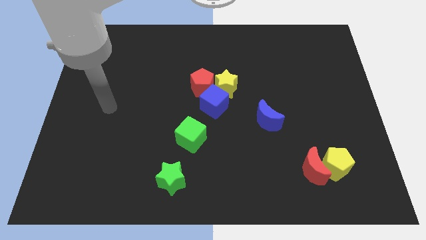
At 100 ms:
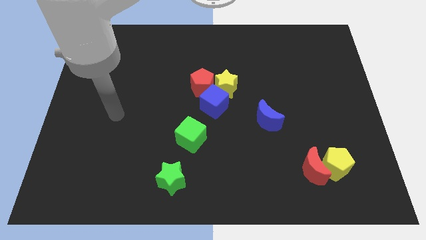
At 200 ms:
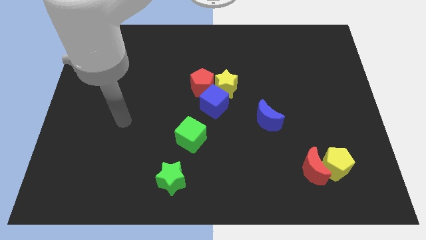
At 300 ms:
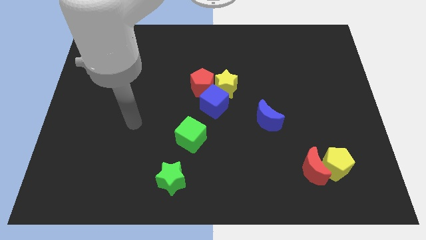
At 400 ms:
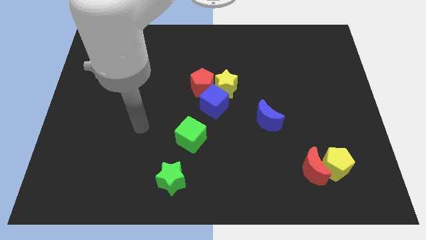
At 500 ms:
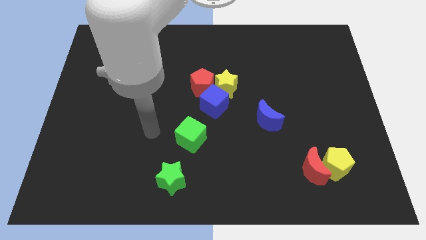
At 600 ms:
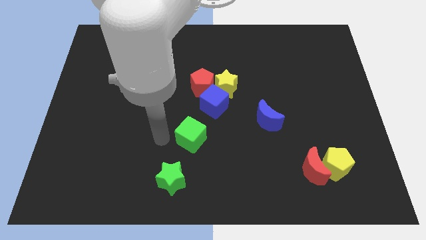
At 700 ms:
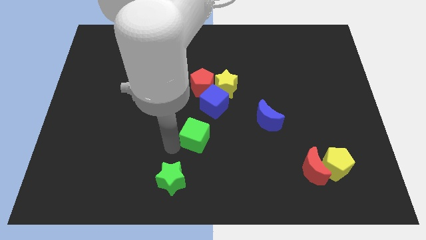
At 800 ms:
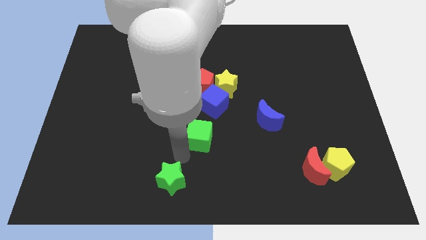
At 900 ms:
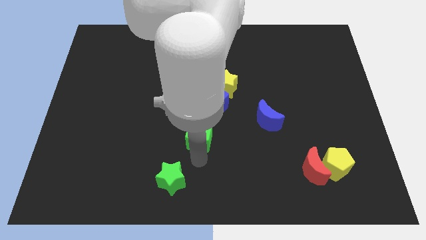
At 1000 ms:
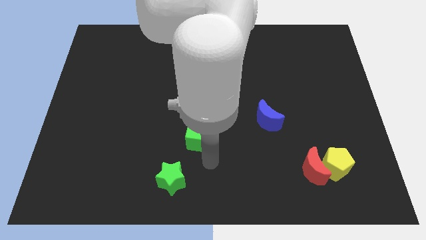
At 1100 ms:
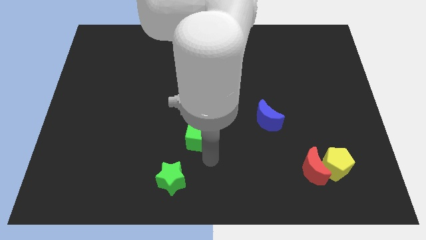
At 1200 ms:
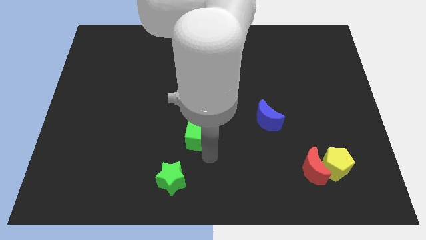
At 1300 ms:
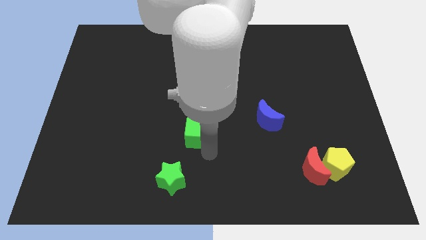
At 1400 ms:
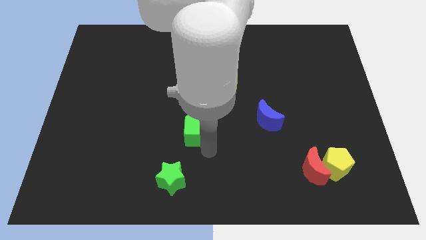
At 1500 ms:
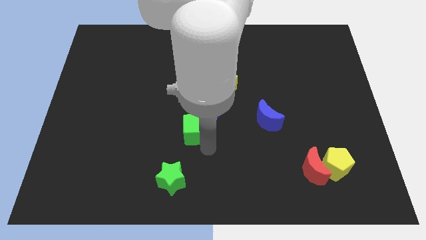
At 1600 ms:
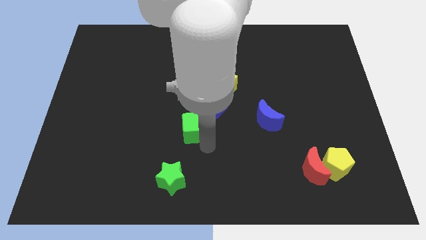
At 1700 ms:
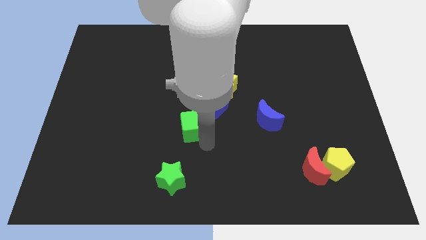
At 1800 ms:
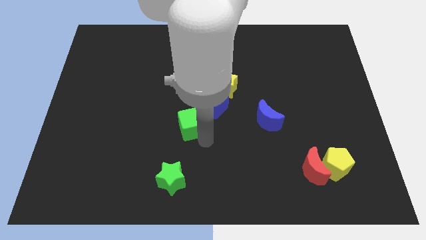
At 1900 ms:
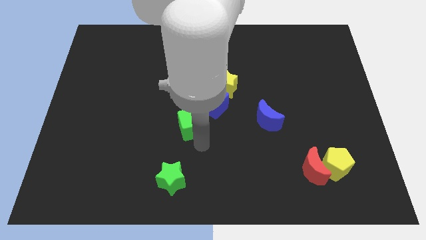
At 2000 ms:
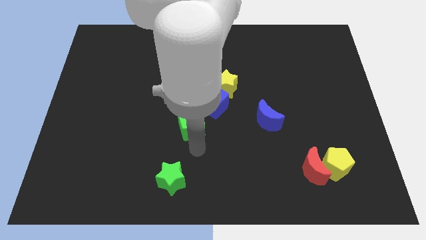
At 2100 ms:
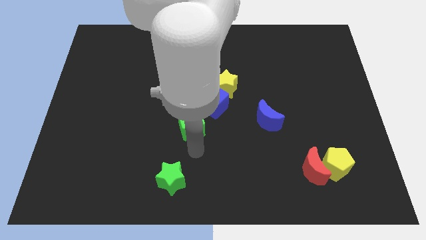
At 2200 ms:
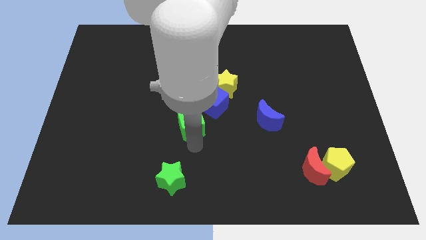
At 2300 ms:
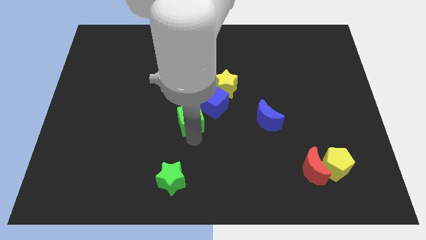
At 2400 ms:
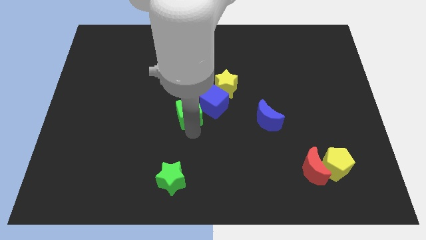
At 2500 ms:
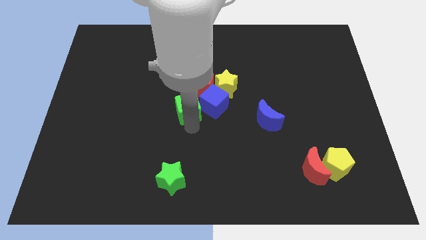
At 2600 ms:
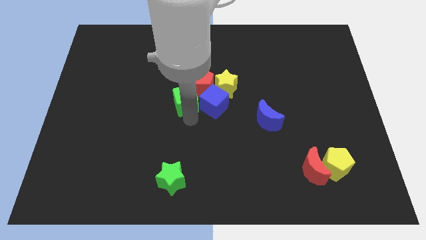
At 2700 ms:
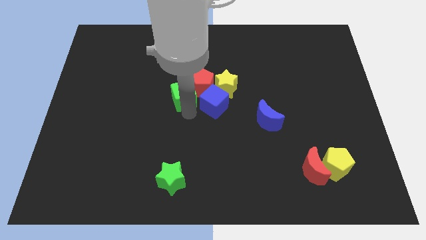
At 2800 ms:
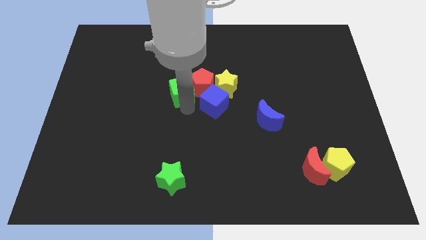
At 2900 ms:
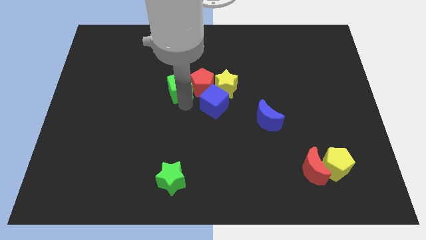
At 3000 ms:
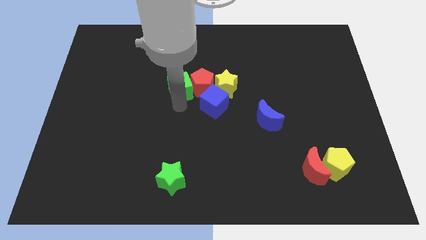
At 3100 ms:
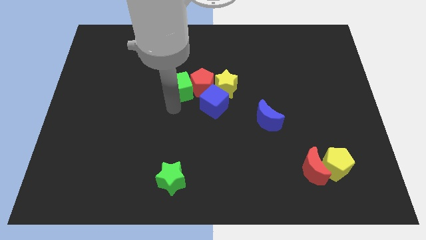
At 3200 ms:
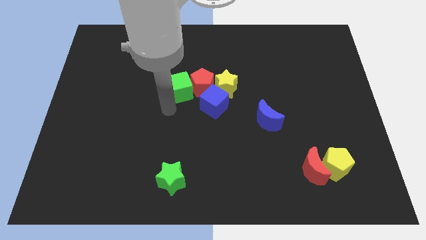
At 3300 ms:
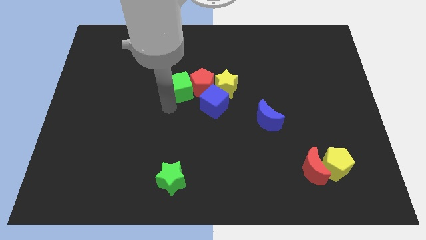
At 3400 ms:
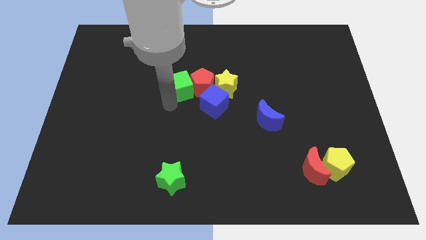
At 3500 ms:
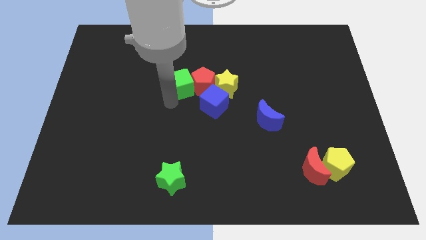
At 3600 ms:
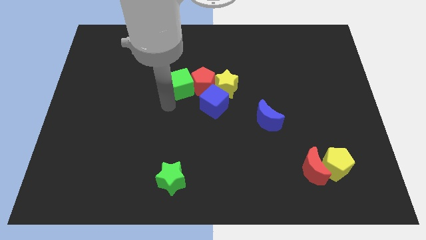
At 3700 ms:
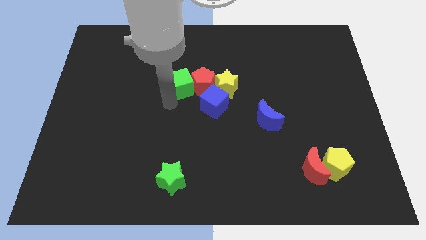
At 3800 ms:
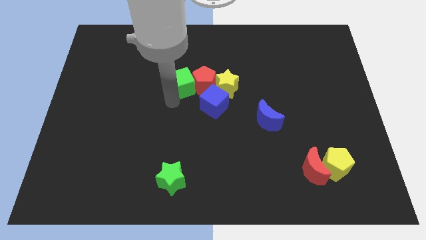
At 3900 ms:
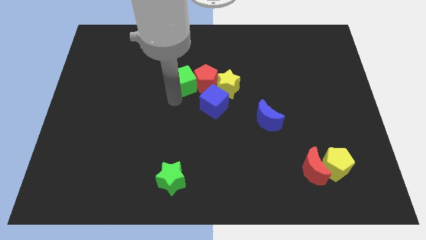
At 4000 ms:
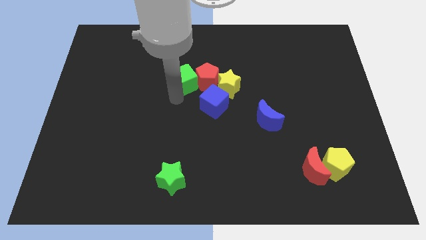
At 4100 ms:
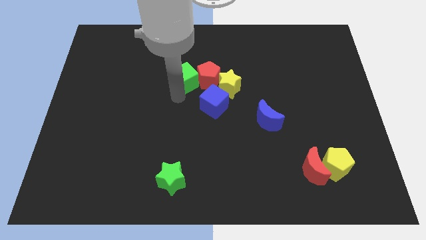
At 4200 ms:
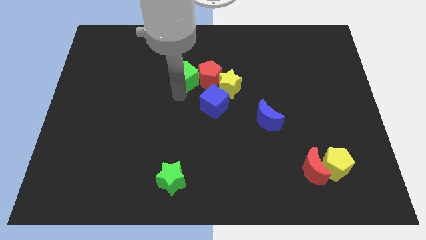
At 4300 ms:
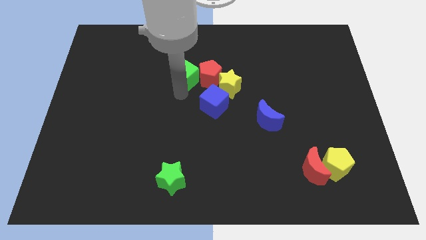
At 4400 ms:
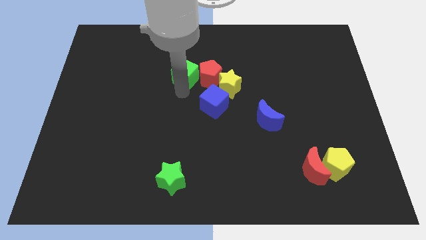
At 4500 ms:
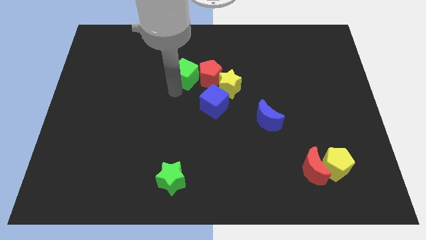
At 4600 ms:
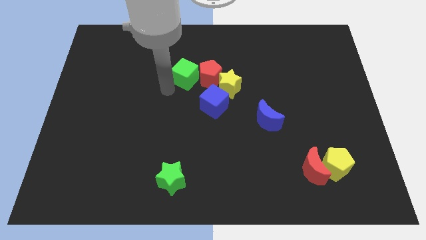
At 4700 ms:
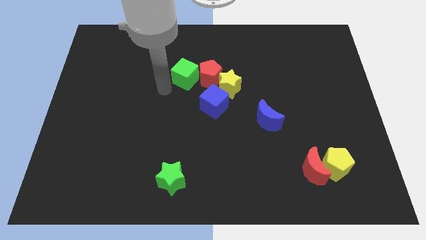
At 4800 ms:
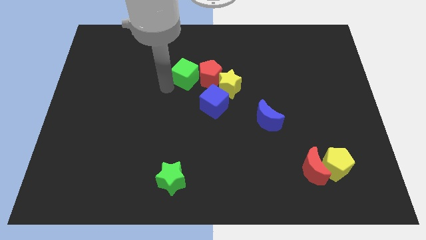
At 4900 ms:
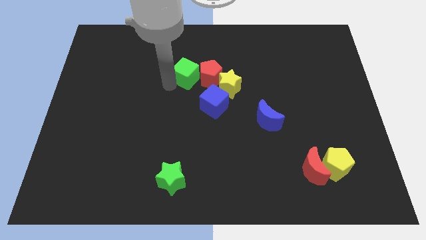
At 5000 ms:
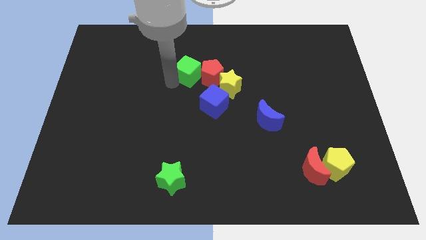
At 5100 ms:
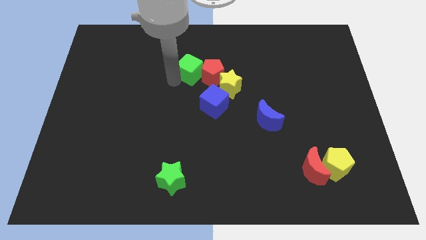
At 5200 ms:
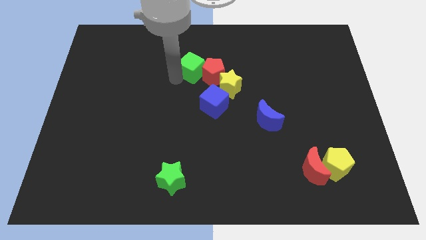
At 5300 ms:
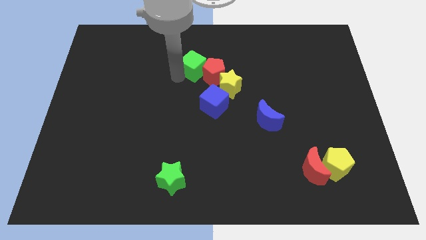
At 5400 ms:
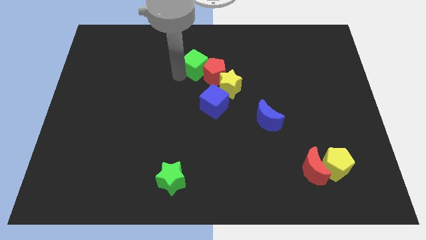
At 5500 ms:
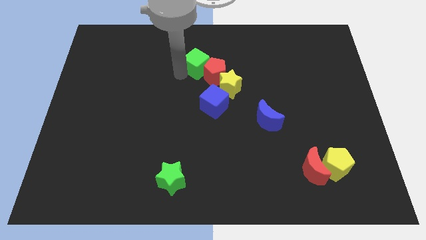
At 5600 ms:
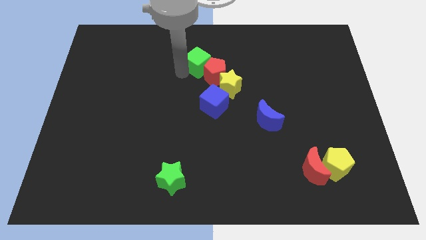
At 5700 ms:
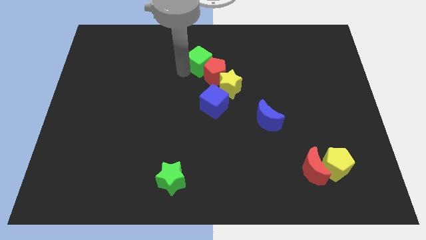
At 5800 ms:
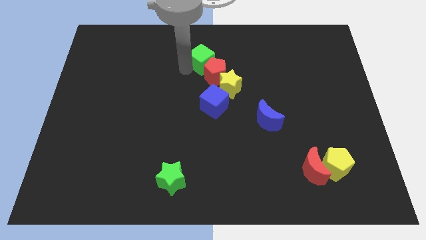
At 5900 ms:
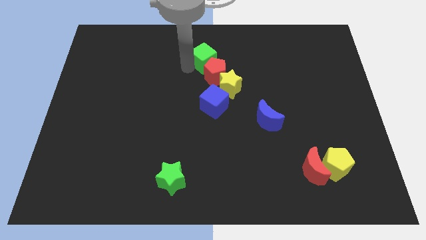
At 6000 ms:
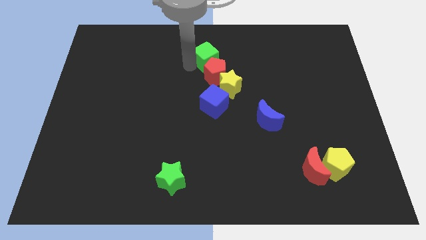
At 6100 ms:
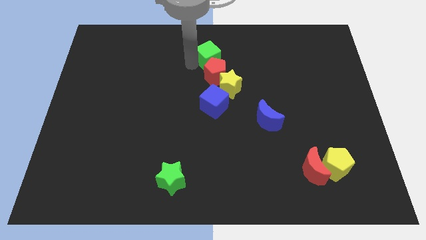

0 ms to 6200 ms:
put the green cube above the yellow star

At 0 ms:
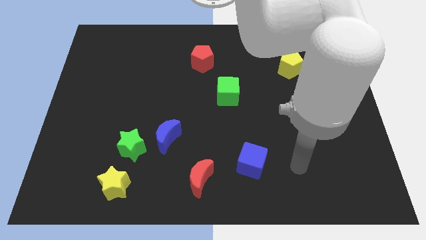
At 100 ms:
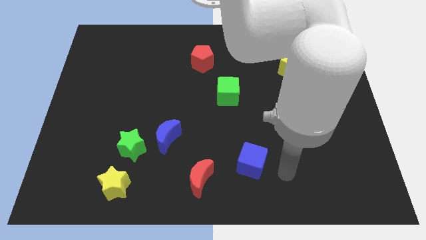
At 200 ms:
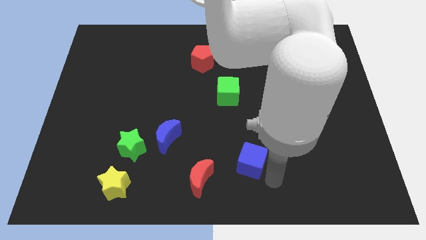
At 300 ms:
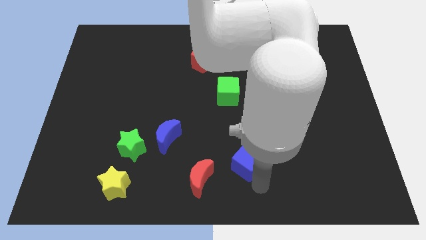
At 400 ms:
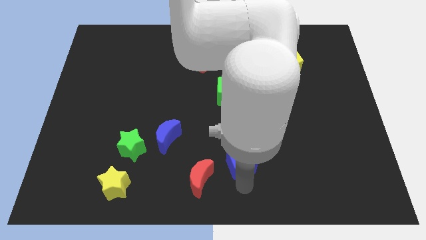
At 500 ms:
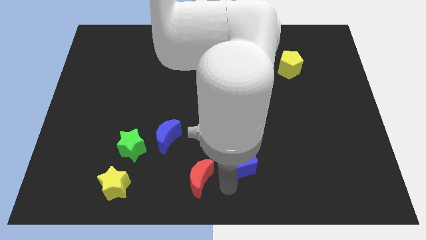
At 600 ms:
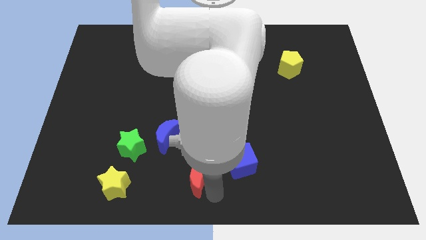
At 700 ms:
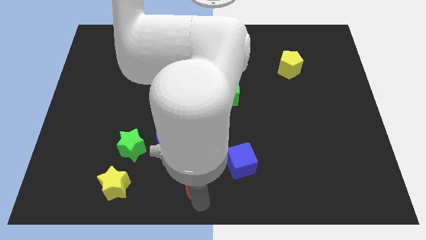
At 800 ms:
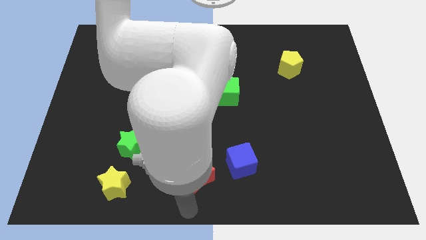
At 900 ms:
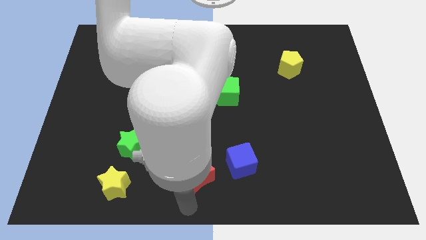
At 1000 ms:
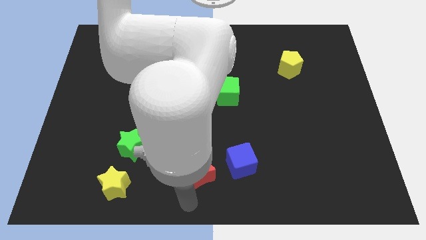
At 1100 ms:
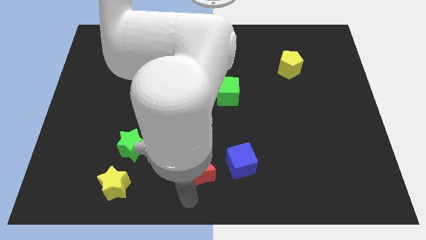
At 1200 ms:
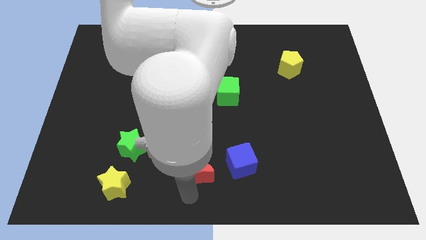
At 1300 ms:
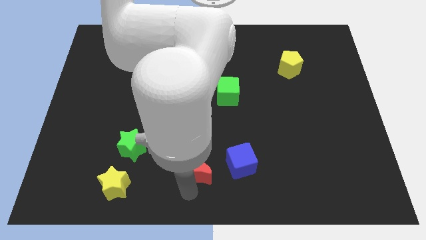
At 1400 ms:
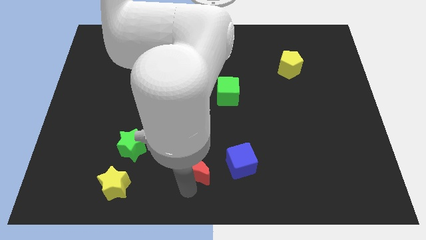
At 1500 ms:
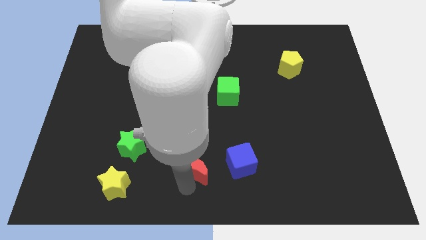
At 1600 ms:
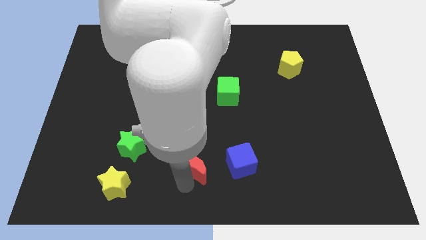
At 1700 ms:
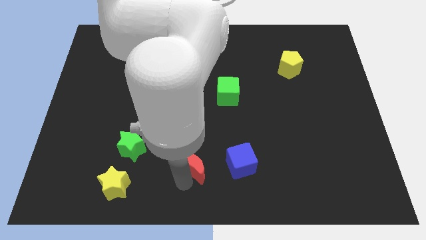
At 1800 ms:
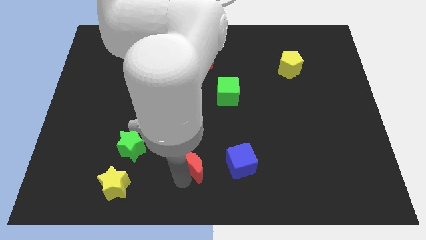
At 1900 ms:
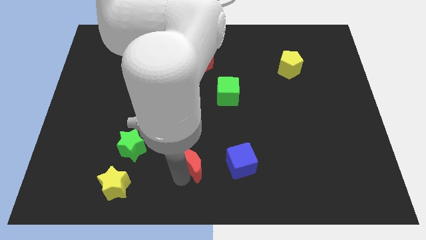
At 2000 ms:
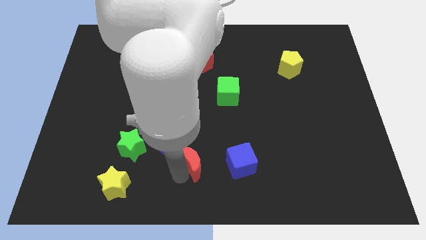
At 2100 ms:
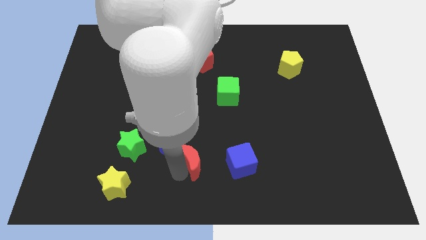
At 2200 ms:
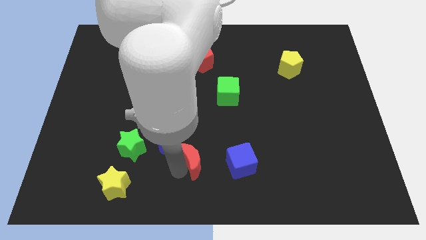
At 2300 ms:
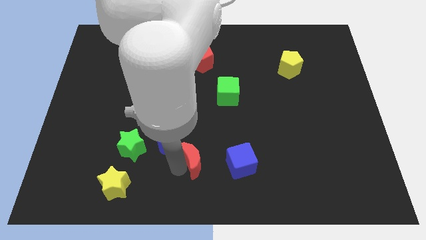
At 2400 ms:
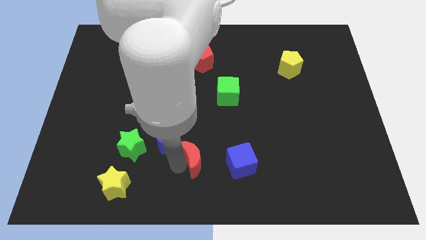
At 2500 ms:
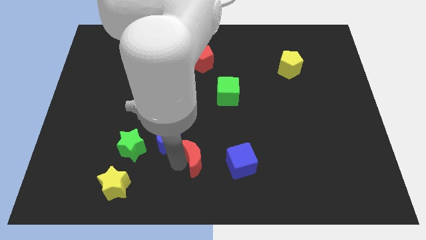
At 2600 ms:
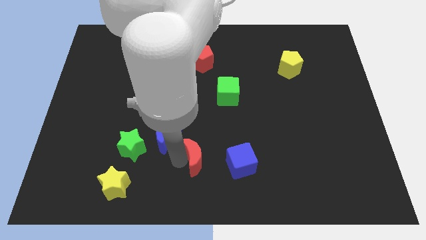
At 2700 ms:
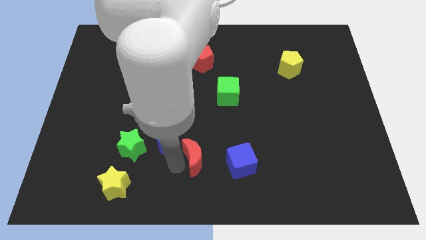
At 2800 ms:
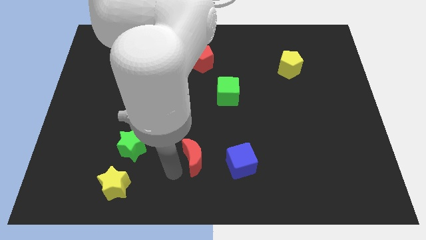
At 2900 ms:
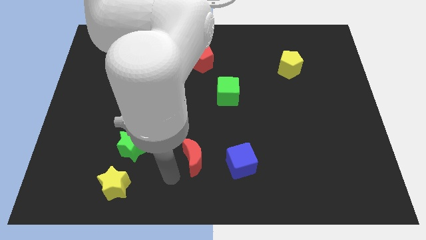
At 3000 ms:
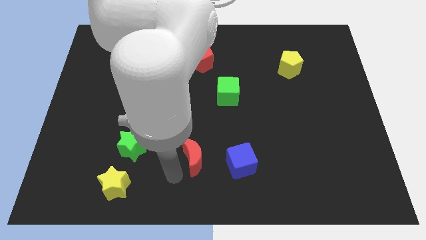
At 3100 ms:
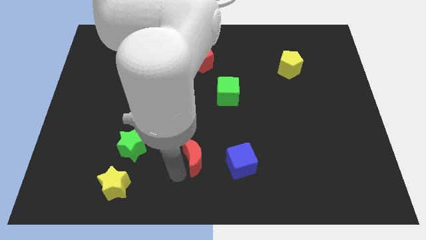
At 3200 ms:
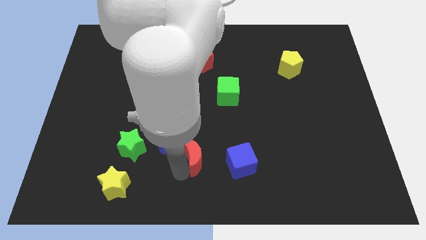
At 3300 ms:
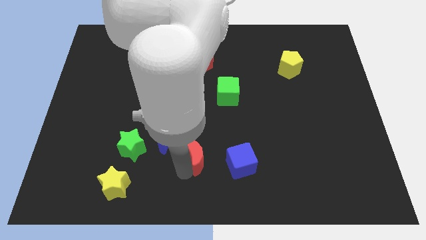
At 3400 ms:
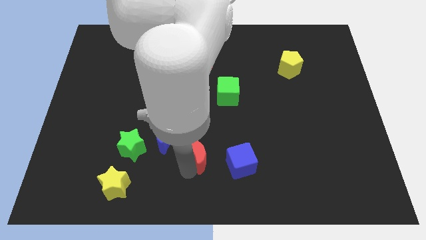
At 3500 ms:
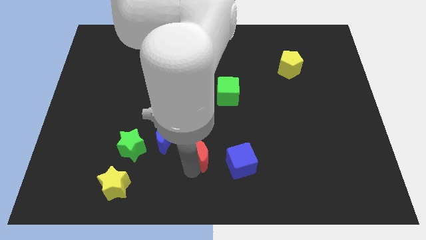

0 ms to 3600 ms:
move the red moon diagonally up and to the left of the blue cube
